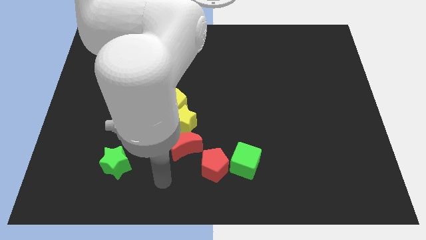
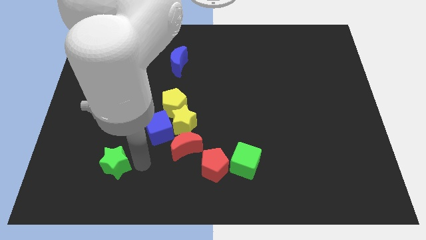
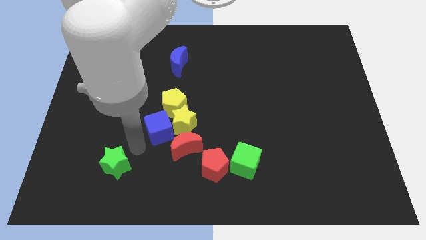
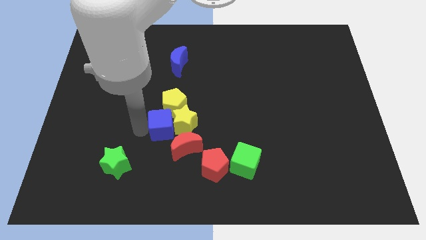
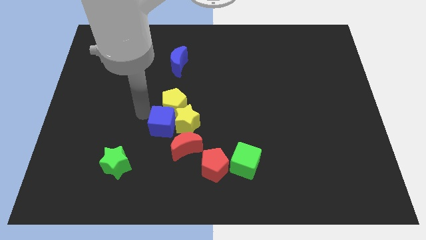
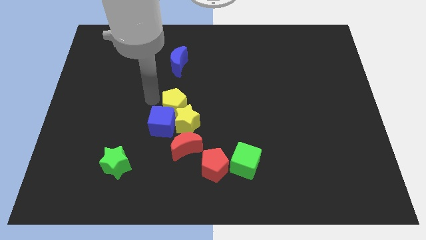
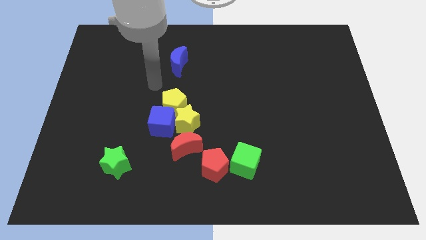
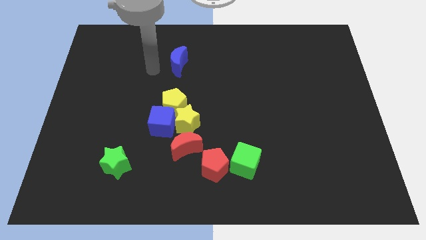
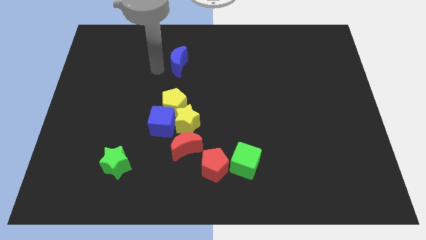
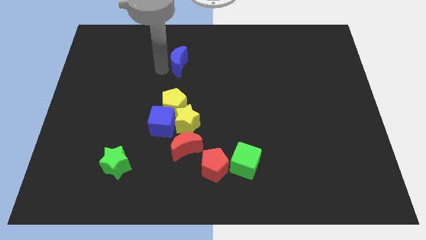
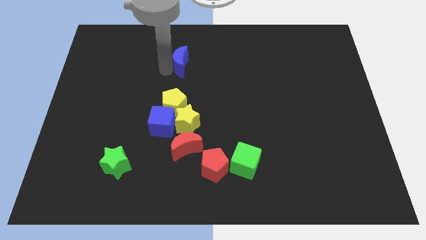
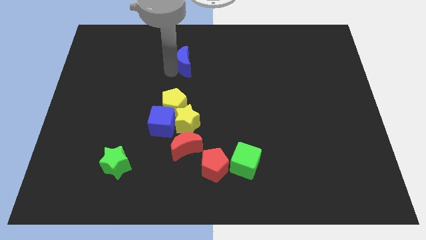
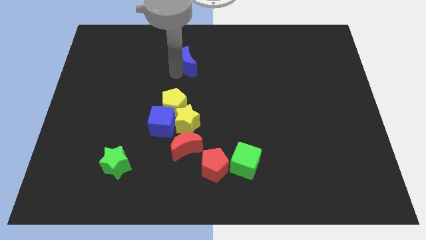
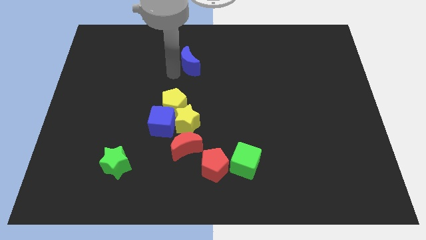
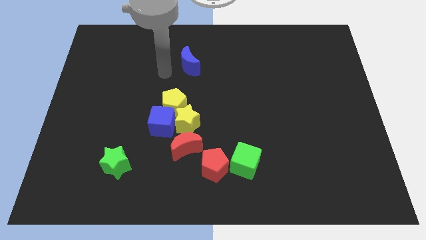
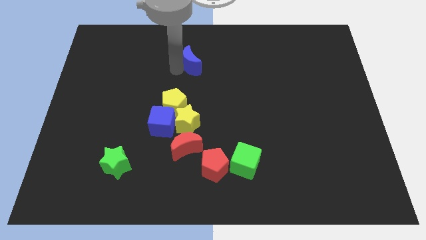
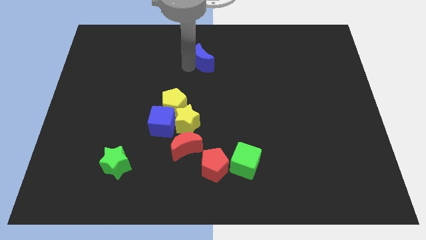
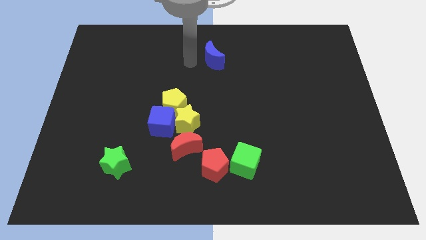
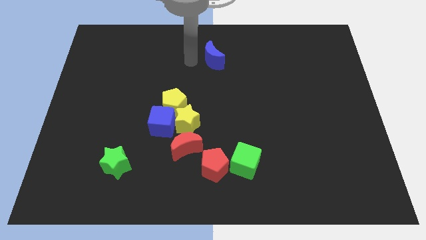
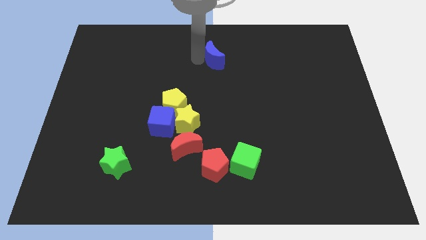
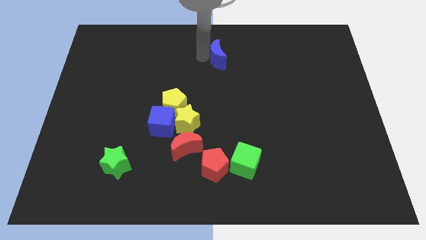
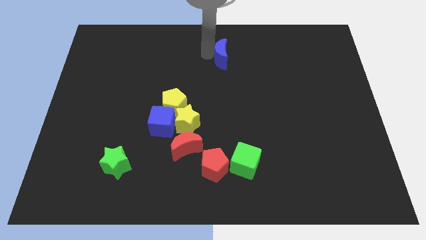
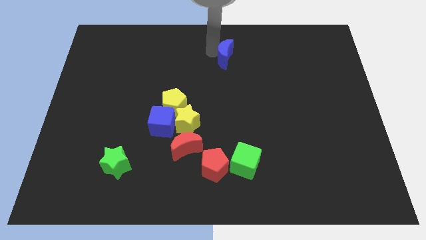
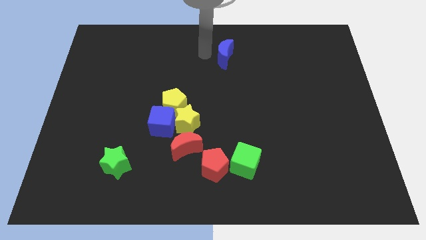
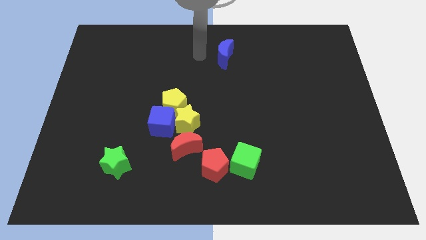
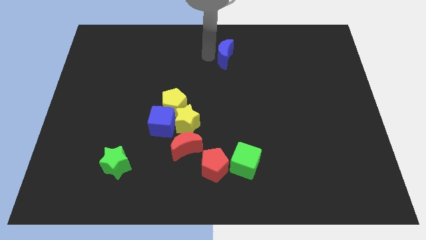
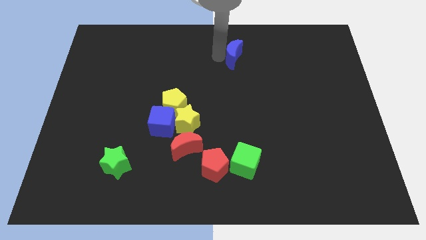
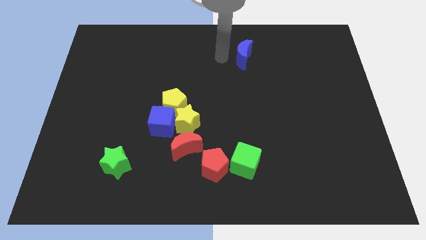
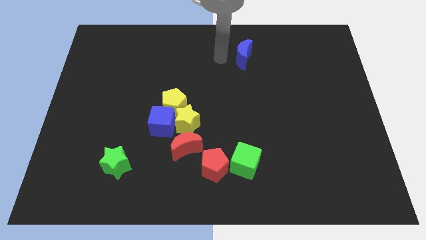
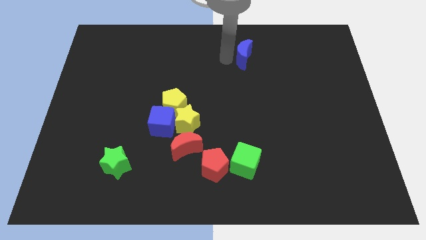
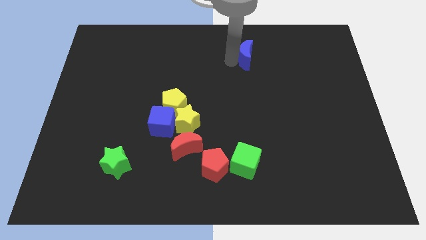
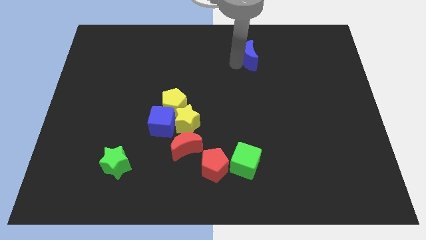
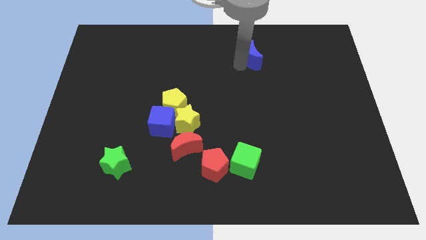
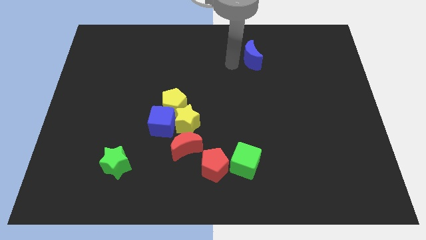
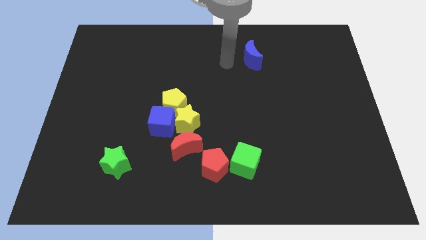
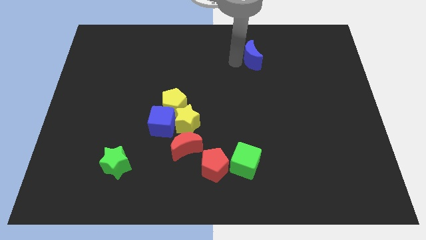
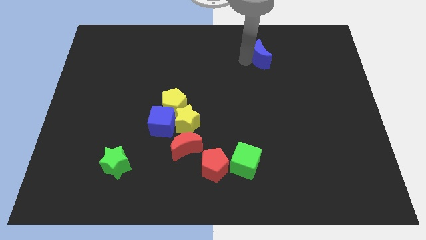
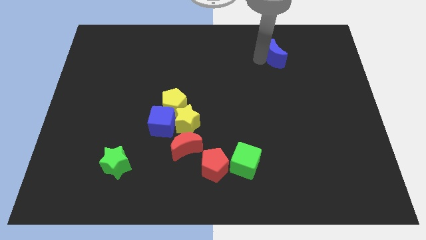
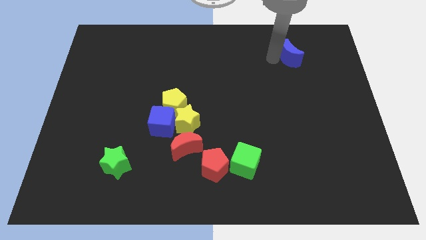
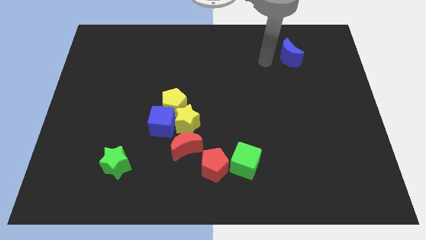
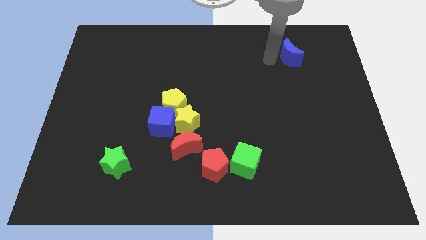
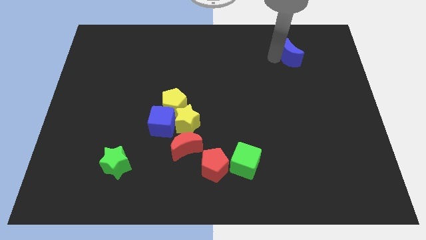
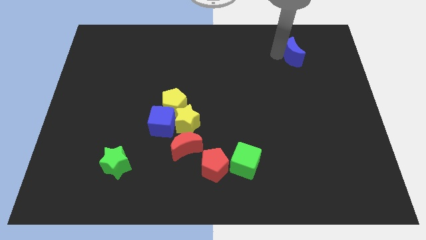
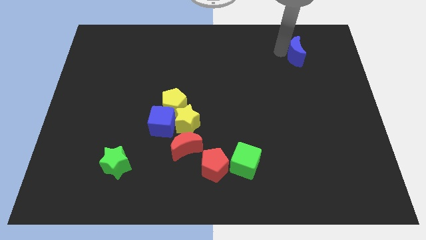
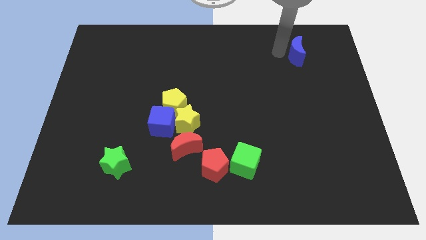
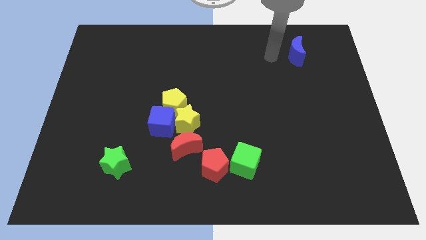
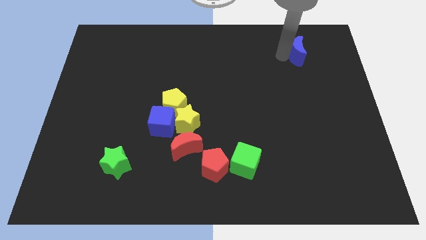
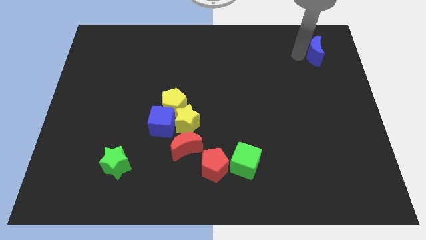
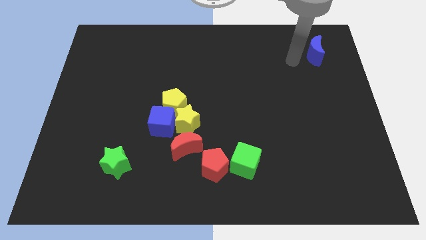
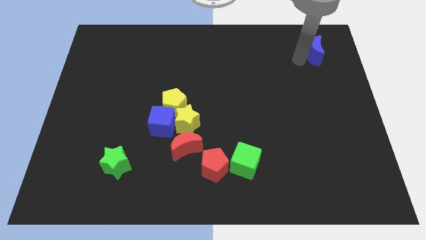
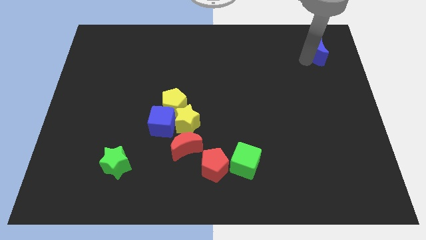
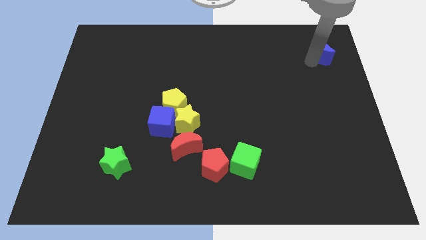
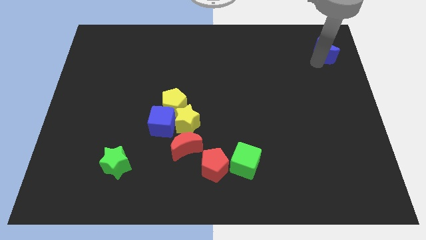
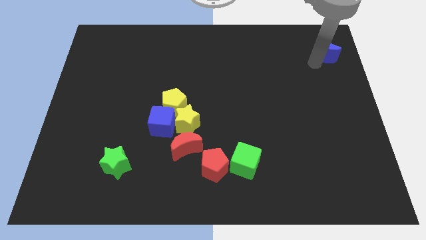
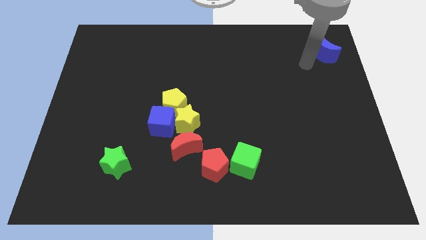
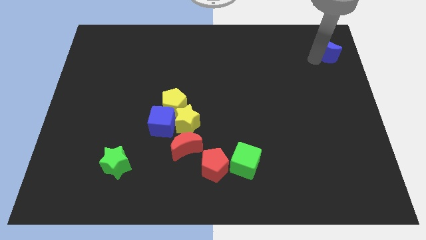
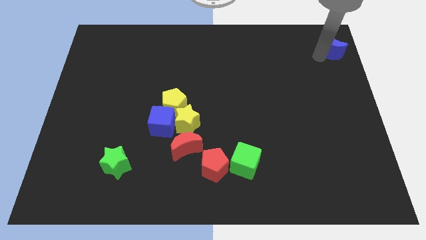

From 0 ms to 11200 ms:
push the blue moon to the top right of the board

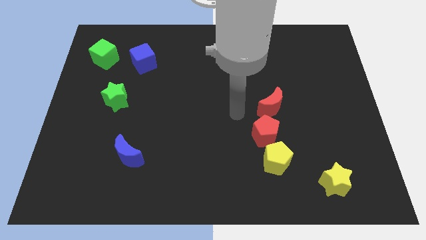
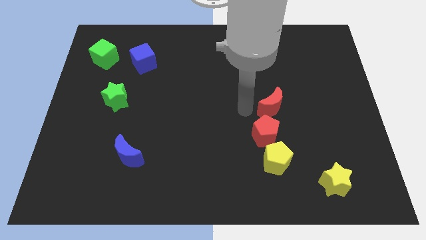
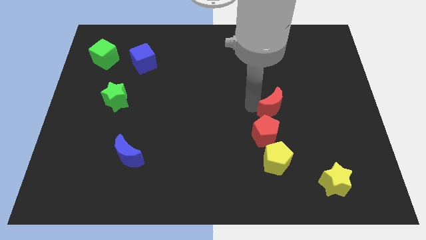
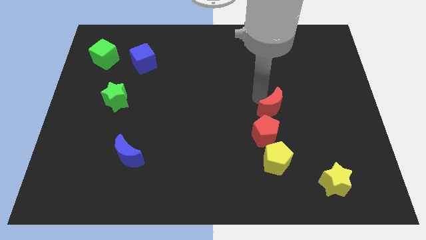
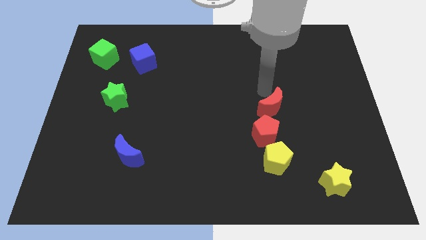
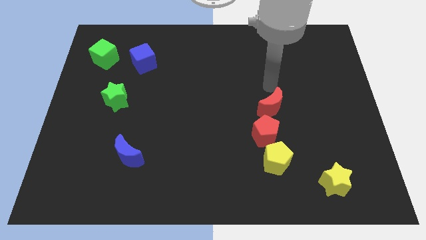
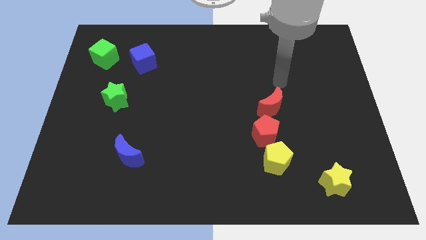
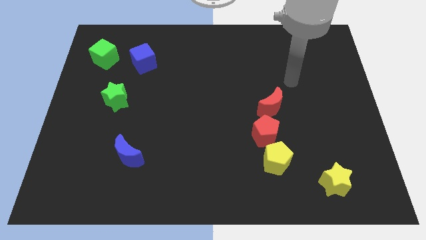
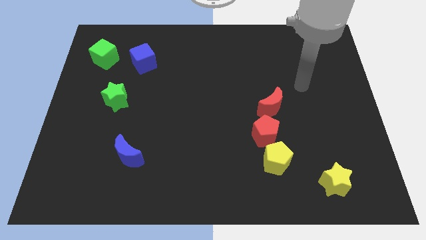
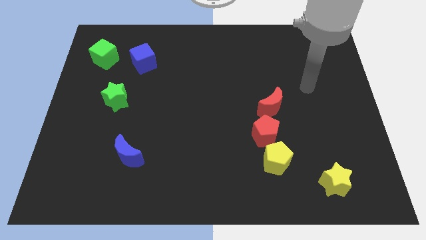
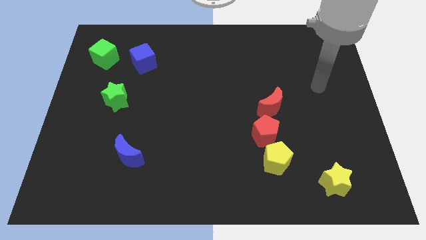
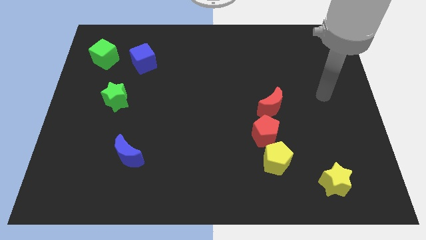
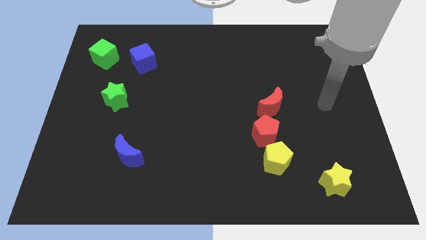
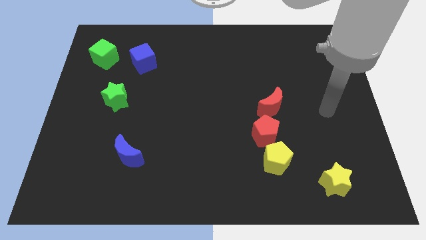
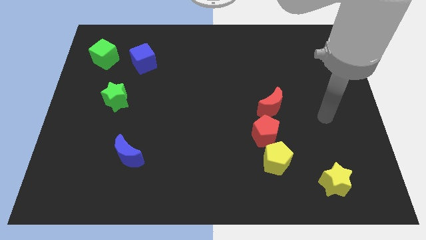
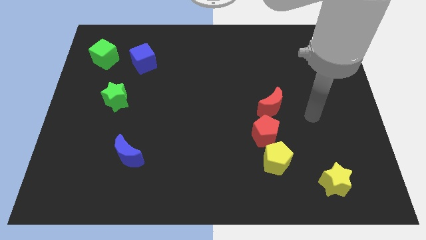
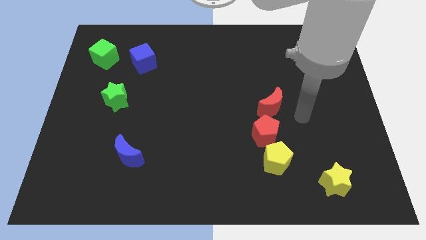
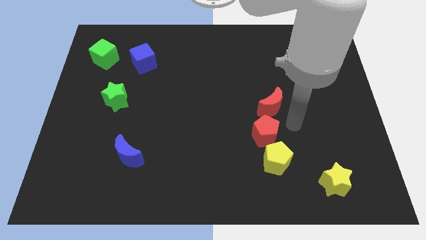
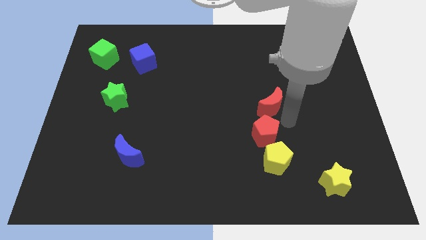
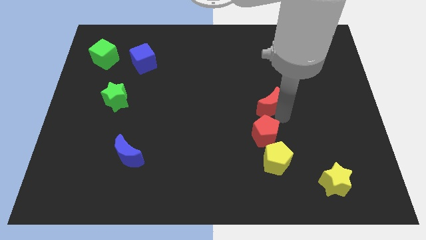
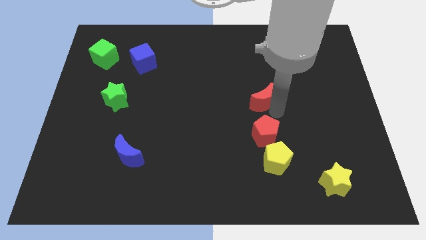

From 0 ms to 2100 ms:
move the red moon to the center
